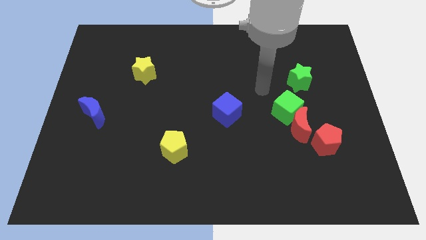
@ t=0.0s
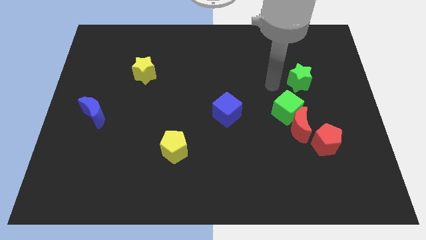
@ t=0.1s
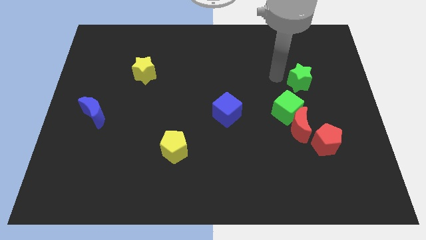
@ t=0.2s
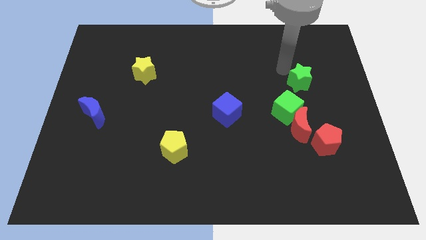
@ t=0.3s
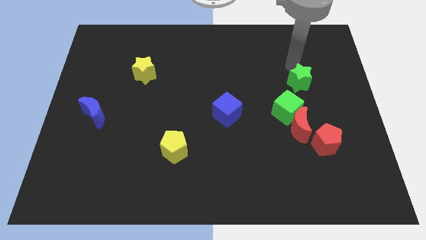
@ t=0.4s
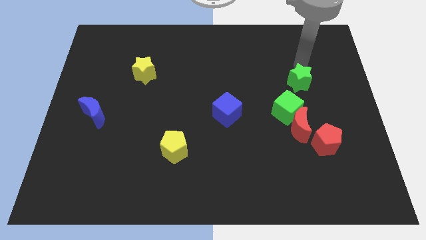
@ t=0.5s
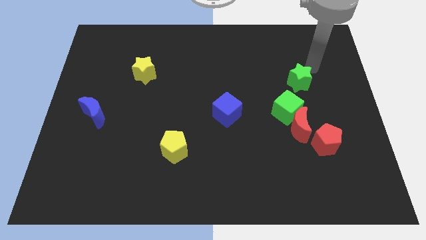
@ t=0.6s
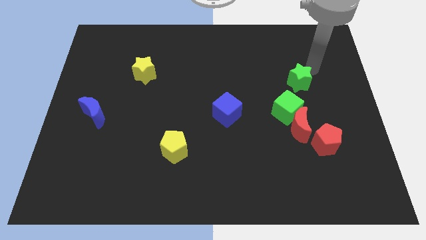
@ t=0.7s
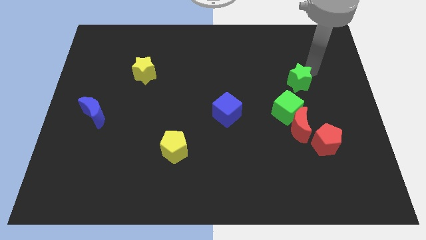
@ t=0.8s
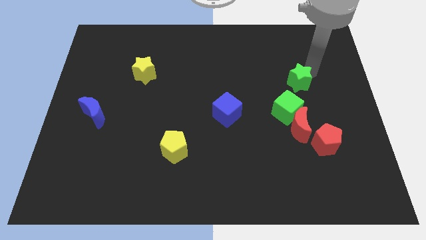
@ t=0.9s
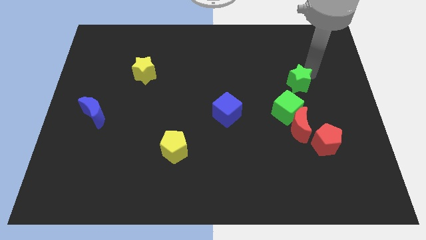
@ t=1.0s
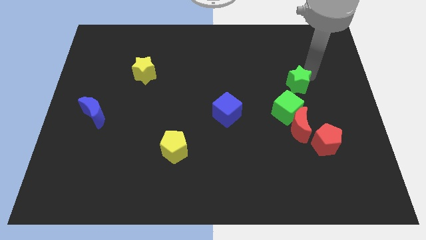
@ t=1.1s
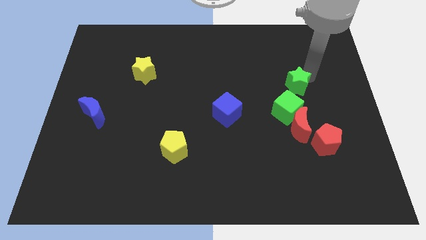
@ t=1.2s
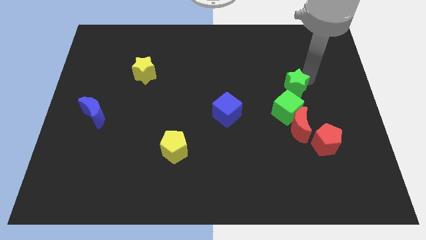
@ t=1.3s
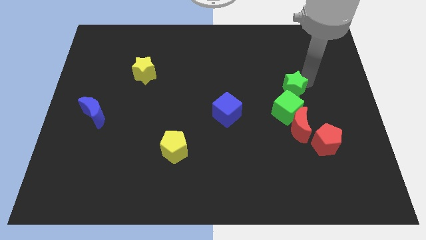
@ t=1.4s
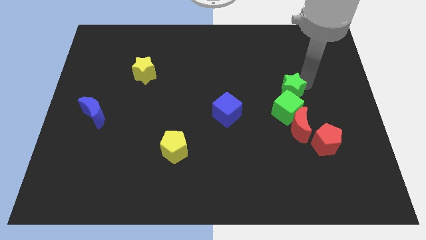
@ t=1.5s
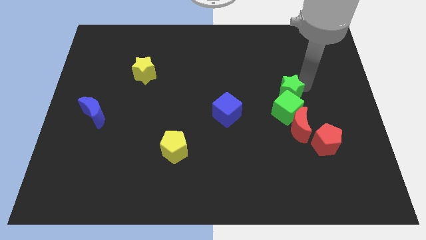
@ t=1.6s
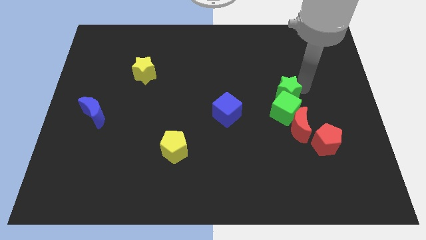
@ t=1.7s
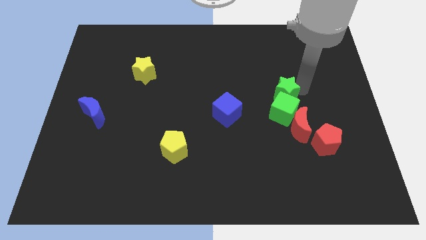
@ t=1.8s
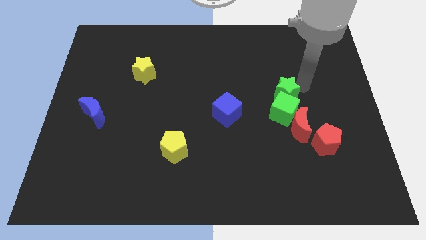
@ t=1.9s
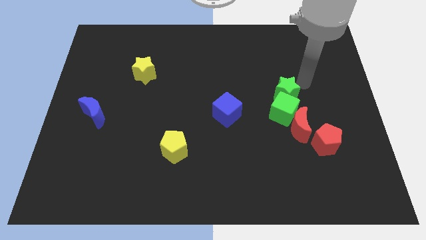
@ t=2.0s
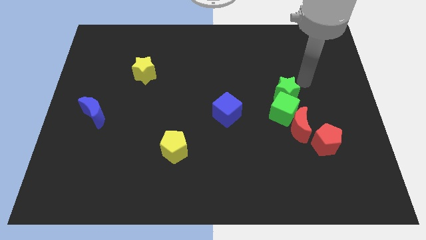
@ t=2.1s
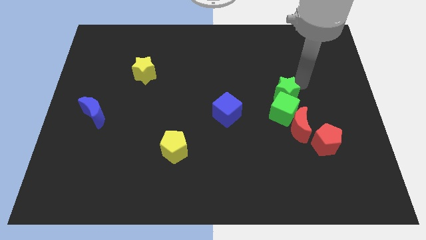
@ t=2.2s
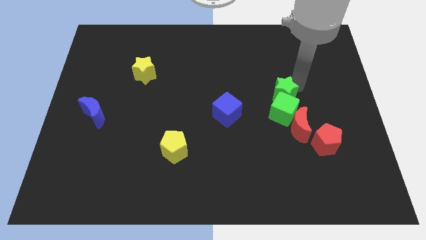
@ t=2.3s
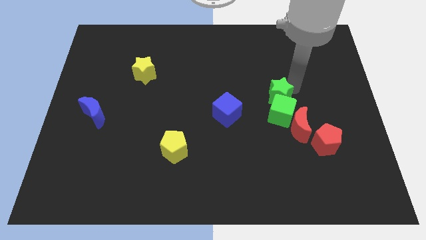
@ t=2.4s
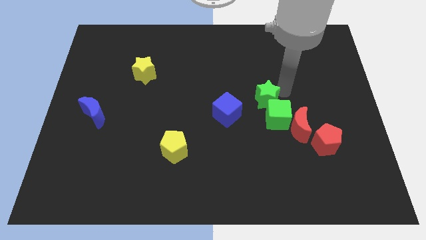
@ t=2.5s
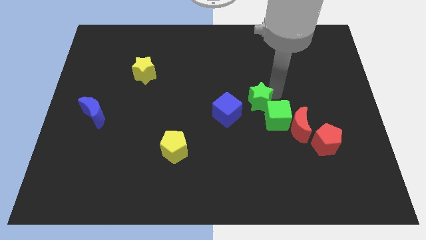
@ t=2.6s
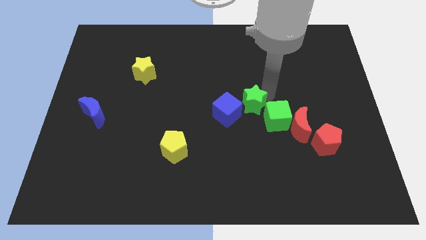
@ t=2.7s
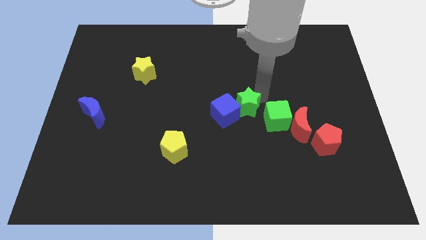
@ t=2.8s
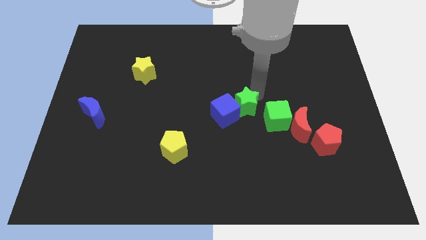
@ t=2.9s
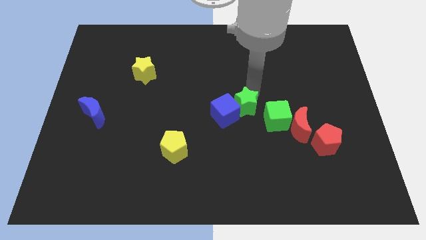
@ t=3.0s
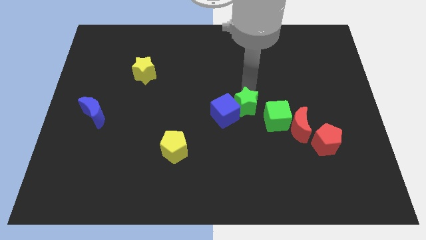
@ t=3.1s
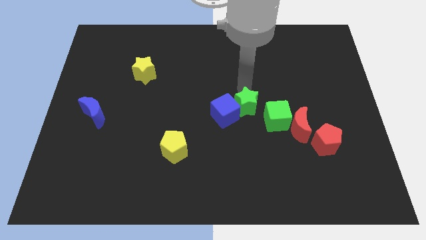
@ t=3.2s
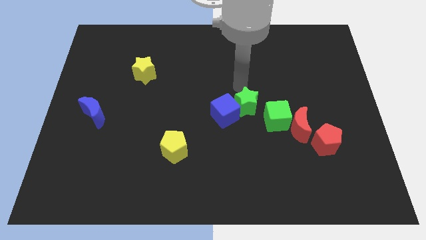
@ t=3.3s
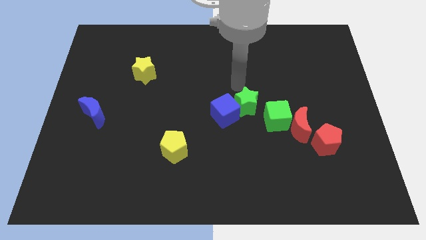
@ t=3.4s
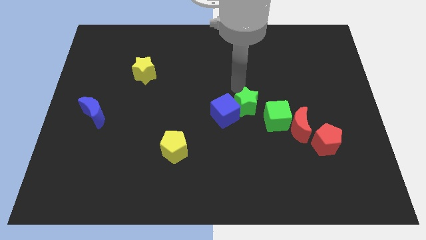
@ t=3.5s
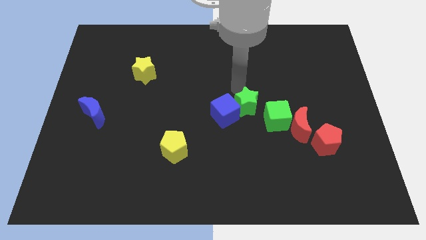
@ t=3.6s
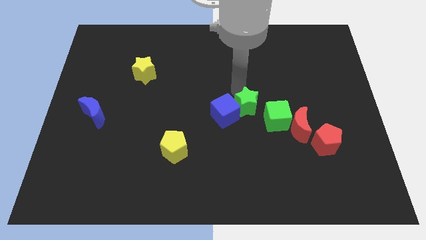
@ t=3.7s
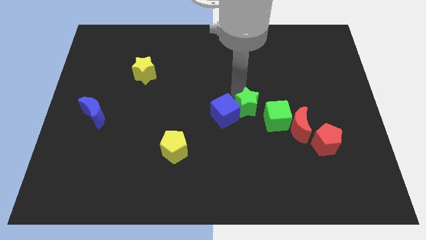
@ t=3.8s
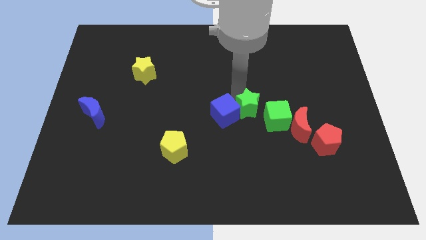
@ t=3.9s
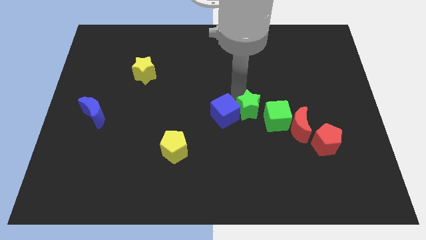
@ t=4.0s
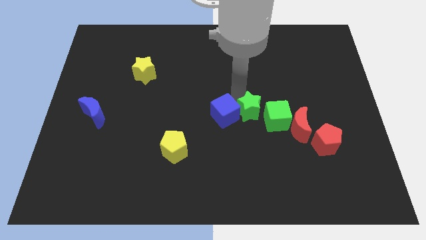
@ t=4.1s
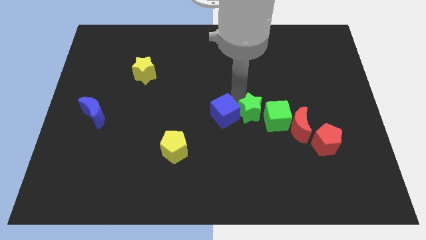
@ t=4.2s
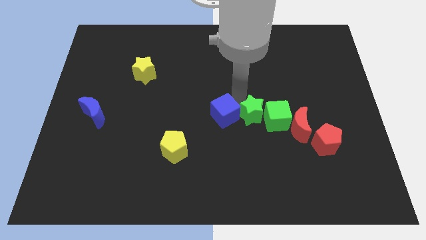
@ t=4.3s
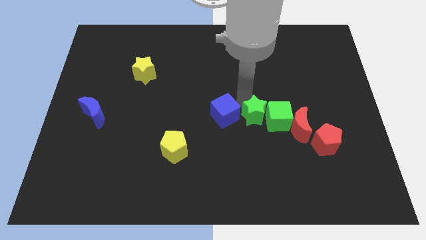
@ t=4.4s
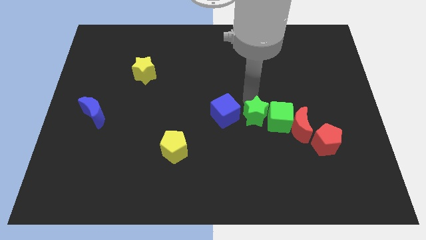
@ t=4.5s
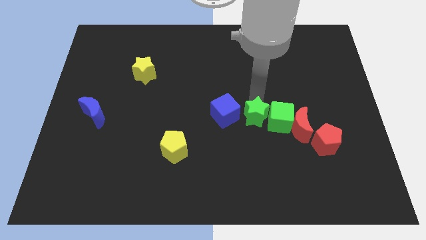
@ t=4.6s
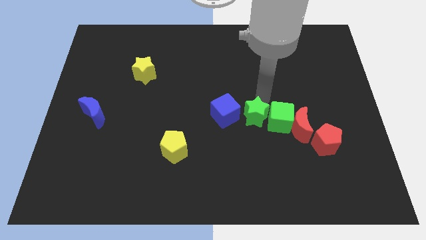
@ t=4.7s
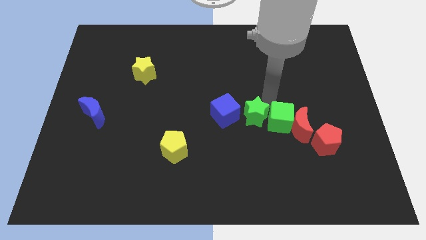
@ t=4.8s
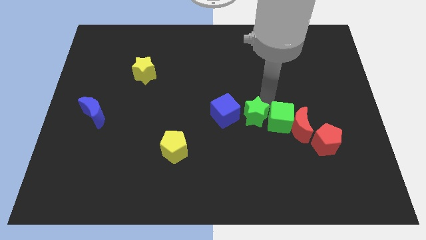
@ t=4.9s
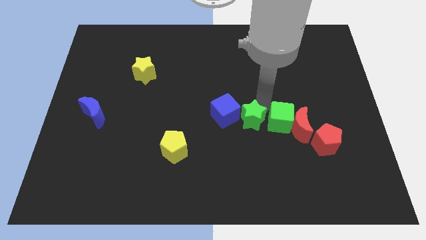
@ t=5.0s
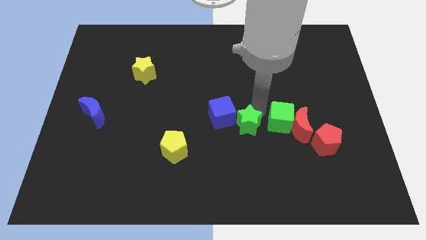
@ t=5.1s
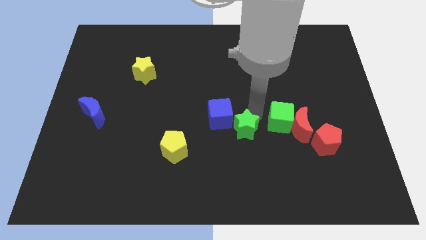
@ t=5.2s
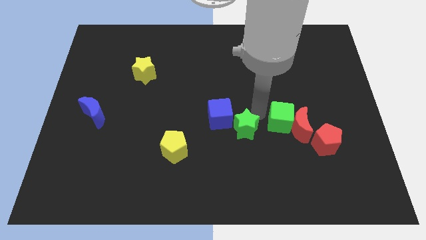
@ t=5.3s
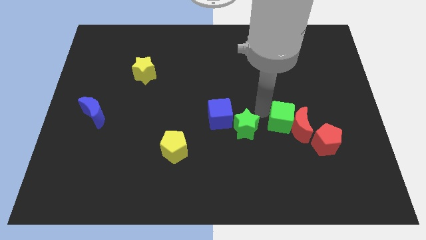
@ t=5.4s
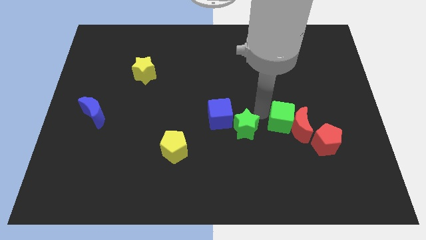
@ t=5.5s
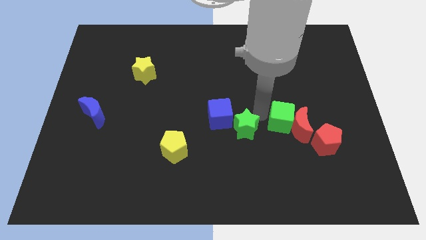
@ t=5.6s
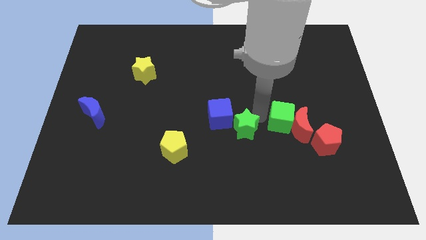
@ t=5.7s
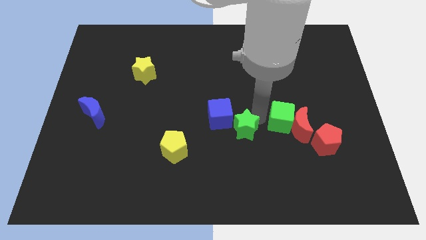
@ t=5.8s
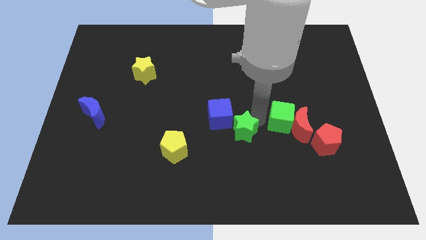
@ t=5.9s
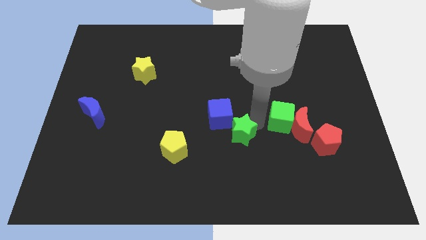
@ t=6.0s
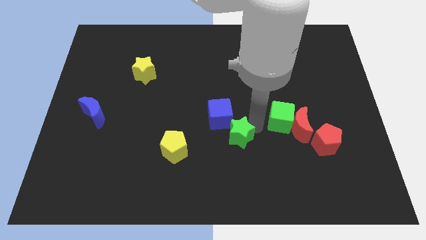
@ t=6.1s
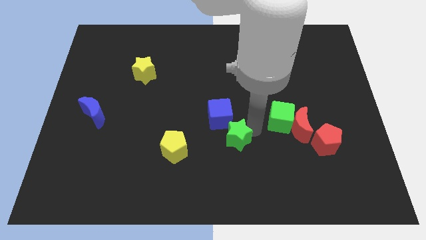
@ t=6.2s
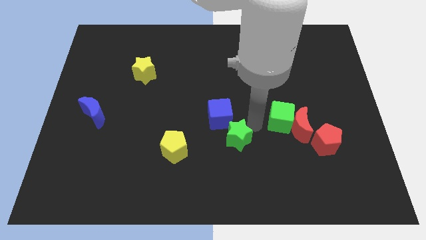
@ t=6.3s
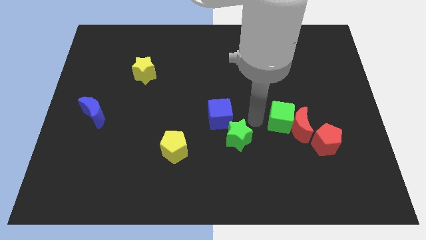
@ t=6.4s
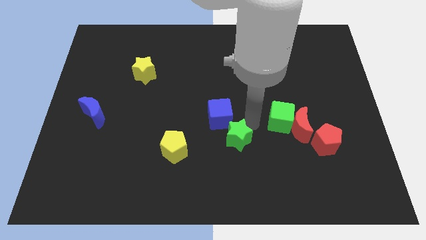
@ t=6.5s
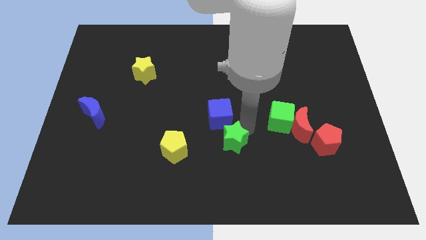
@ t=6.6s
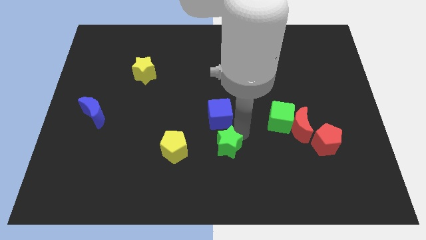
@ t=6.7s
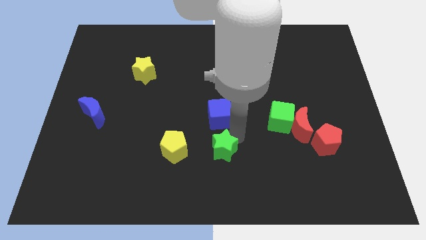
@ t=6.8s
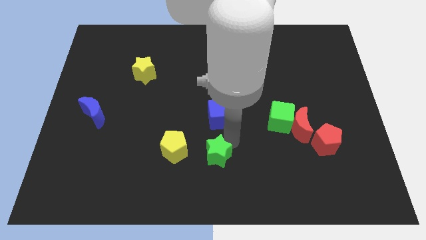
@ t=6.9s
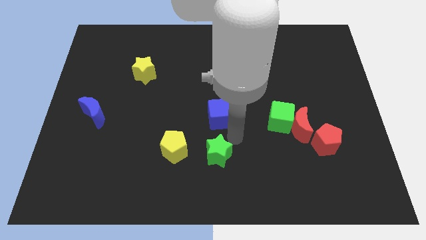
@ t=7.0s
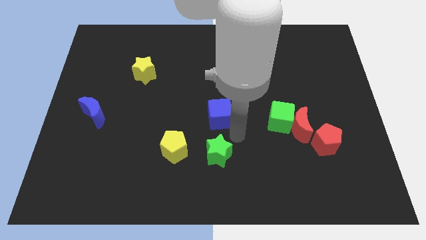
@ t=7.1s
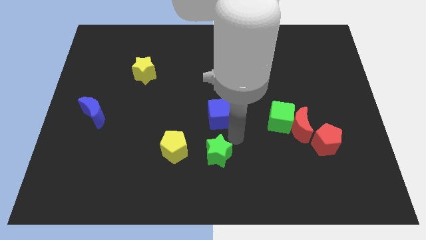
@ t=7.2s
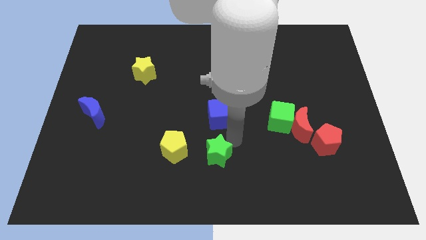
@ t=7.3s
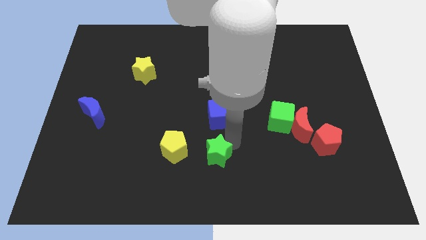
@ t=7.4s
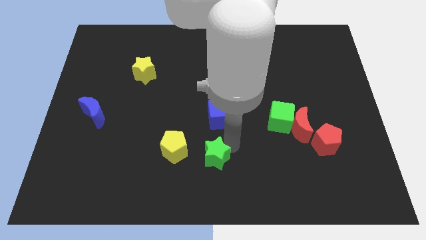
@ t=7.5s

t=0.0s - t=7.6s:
push the green star diagonally down and to the right of the yellow pentagon
